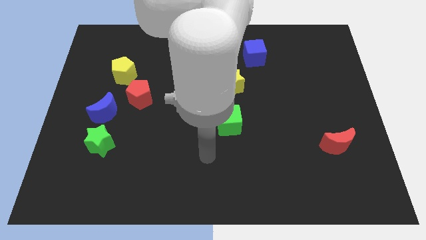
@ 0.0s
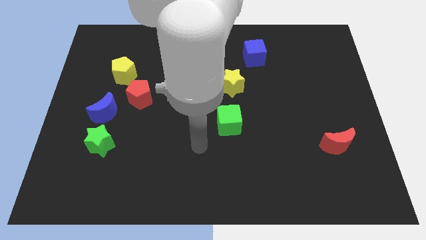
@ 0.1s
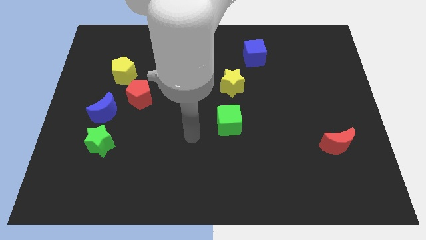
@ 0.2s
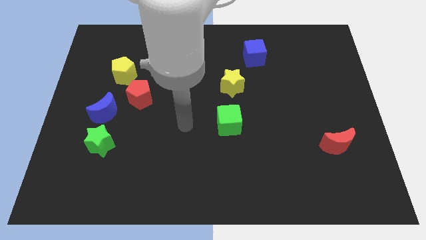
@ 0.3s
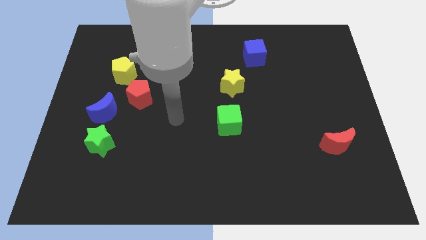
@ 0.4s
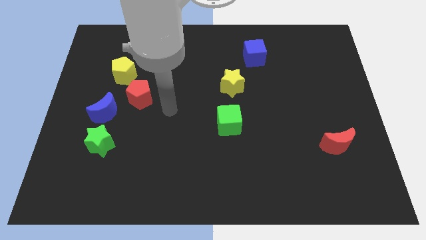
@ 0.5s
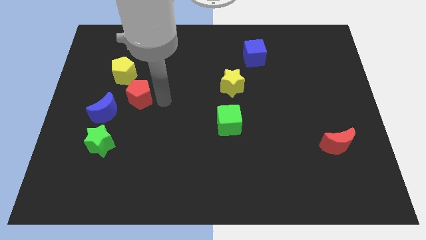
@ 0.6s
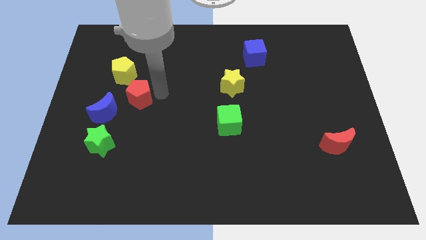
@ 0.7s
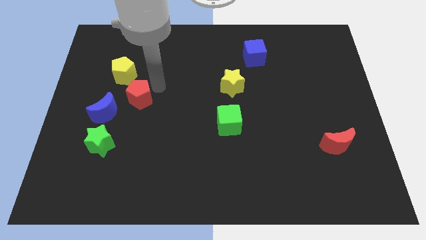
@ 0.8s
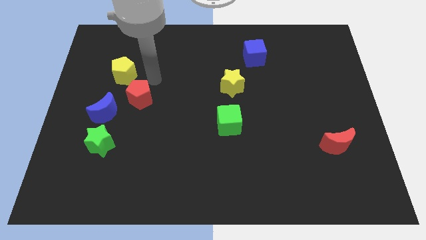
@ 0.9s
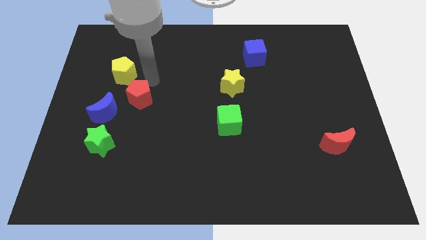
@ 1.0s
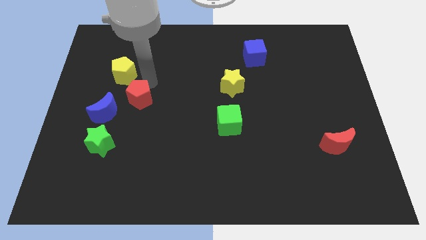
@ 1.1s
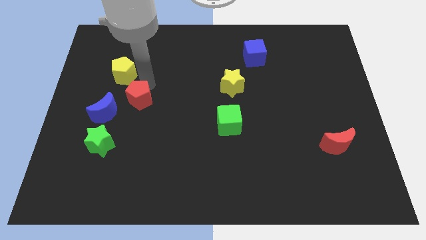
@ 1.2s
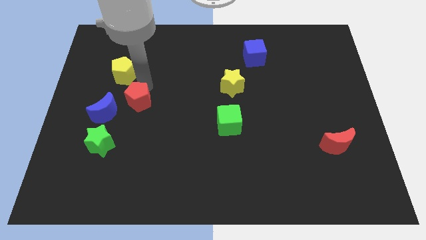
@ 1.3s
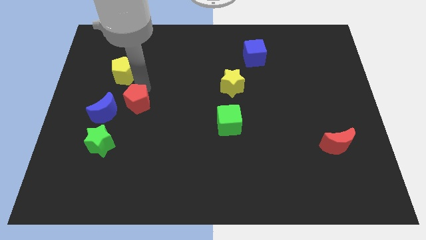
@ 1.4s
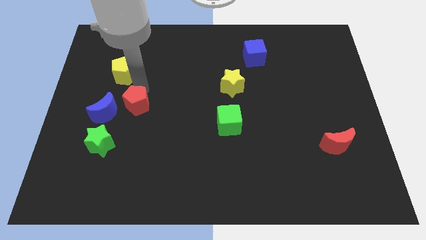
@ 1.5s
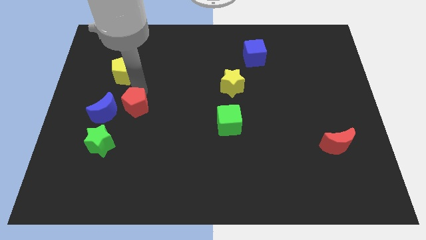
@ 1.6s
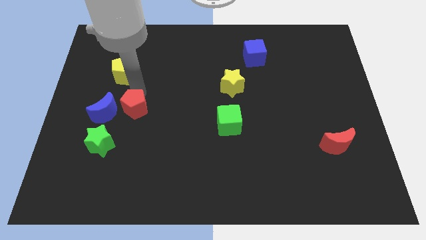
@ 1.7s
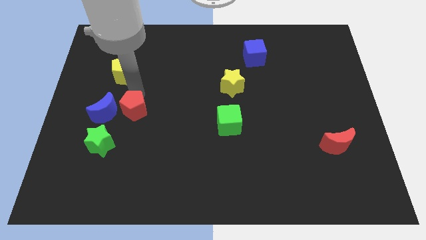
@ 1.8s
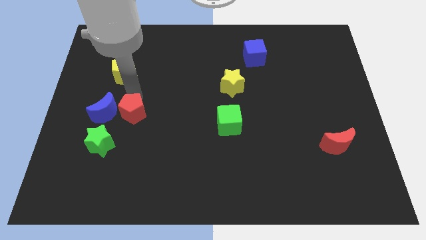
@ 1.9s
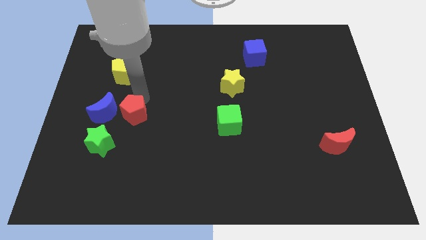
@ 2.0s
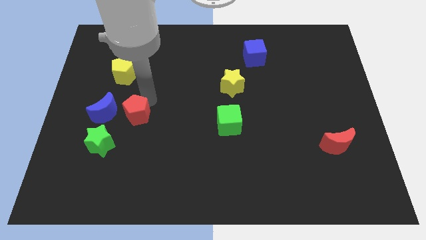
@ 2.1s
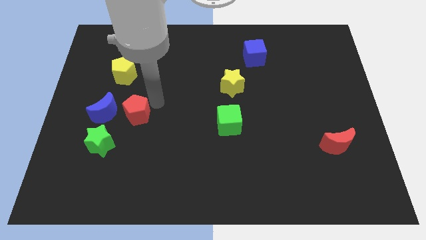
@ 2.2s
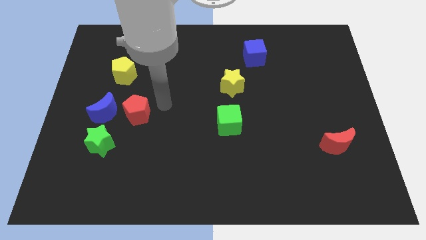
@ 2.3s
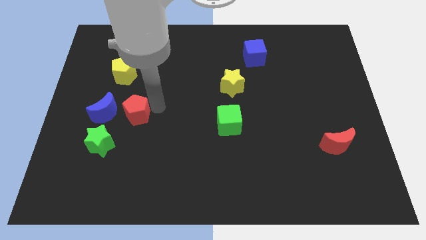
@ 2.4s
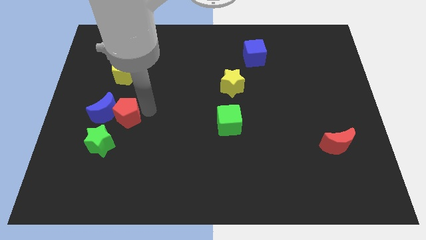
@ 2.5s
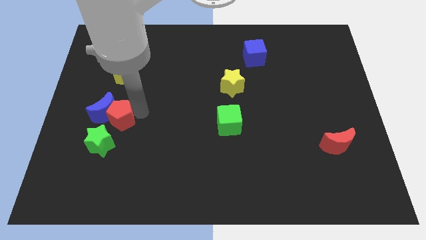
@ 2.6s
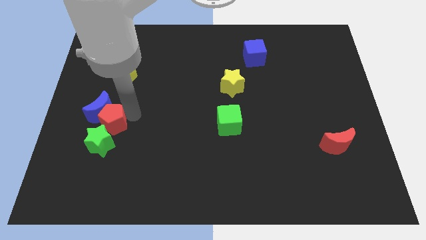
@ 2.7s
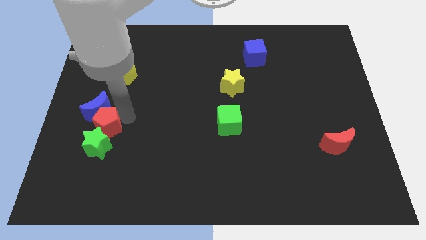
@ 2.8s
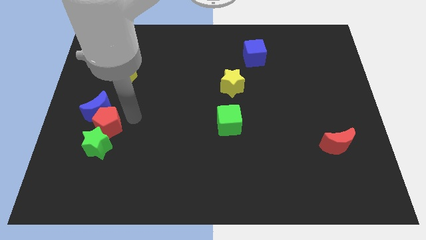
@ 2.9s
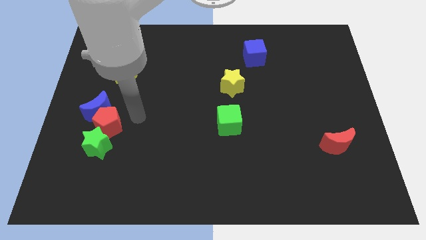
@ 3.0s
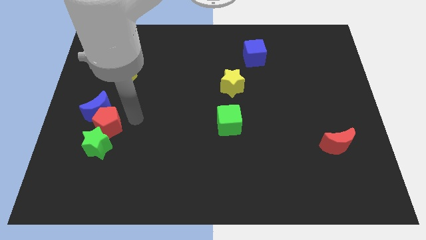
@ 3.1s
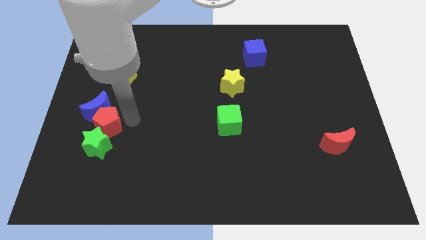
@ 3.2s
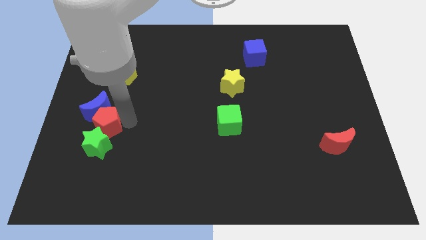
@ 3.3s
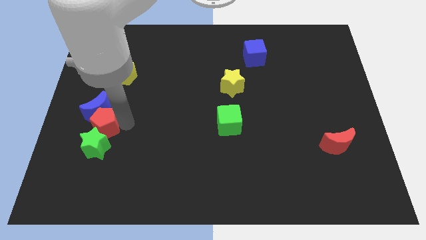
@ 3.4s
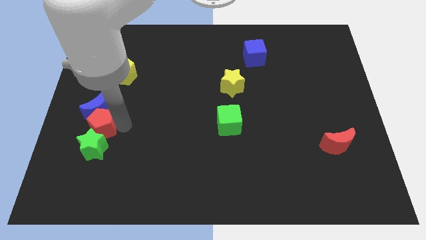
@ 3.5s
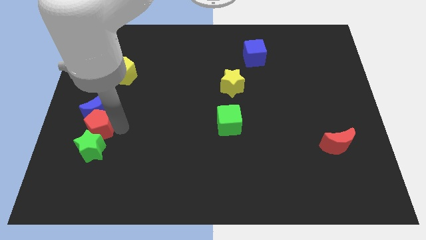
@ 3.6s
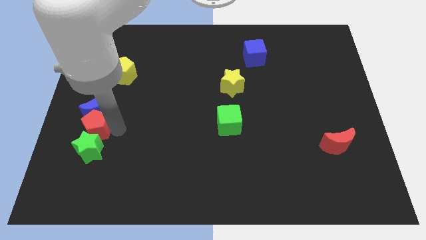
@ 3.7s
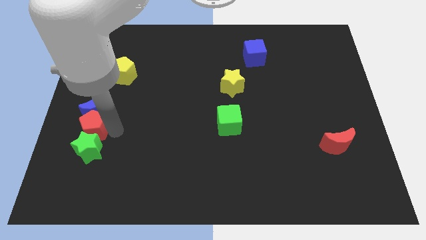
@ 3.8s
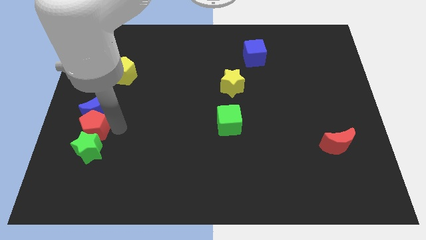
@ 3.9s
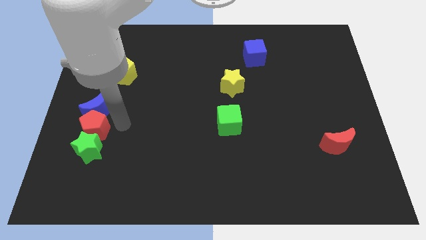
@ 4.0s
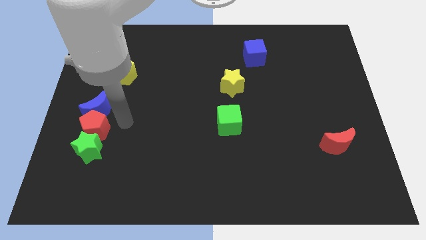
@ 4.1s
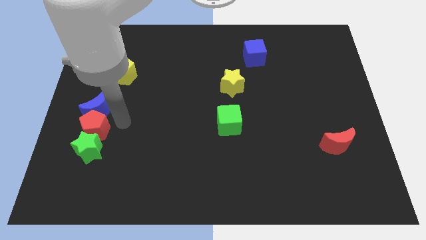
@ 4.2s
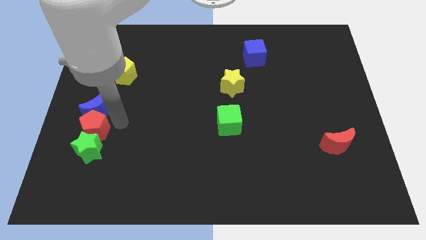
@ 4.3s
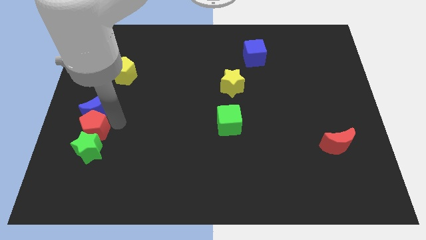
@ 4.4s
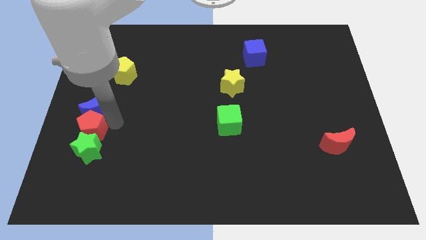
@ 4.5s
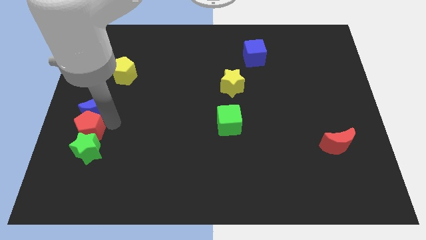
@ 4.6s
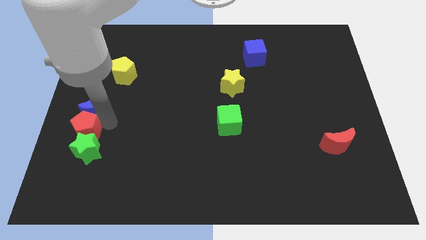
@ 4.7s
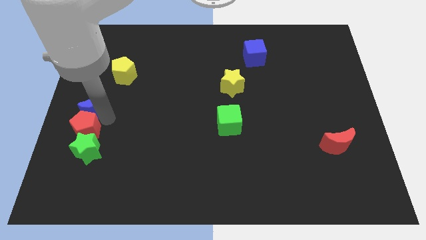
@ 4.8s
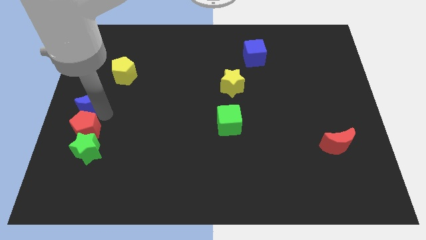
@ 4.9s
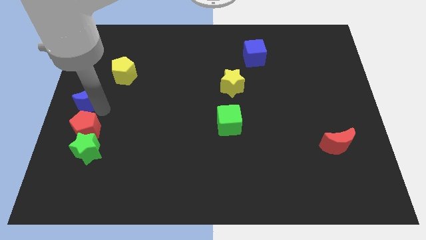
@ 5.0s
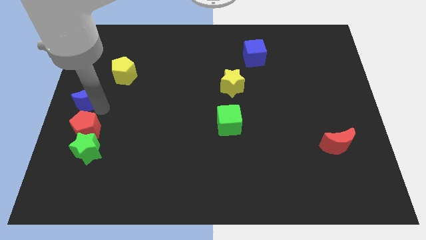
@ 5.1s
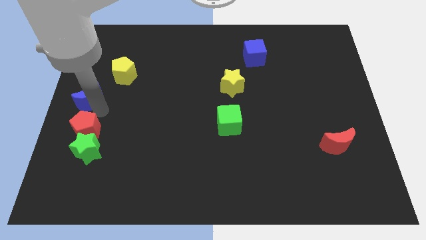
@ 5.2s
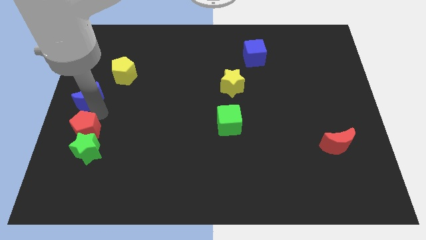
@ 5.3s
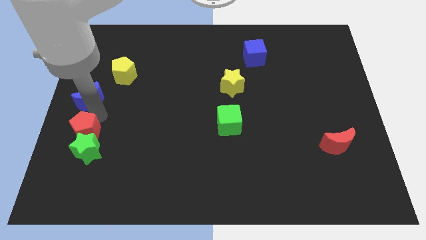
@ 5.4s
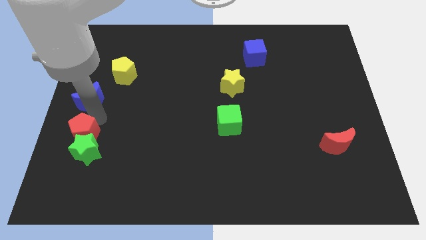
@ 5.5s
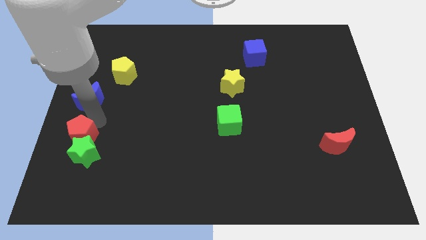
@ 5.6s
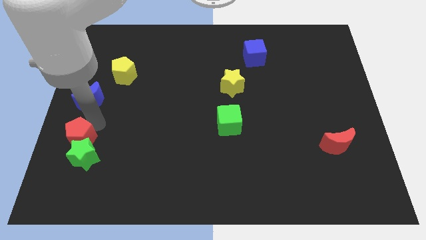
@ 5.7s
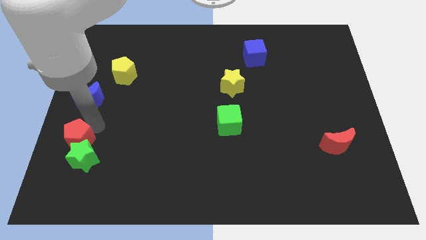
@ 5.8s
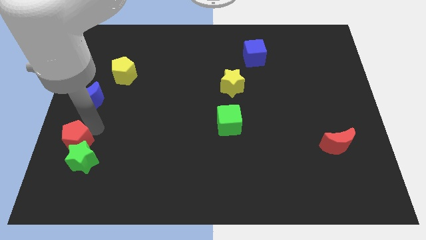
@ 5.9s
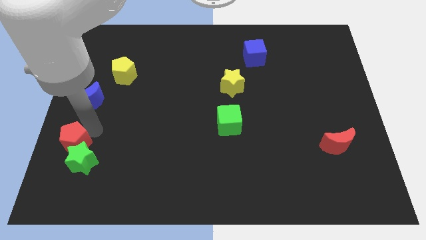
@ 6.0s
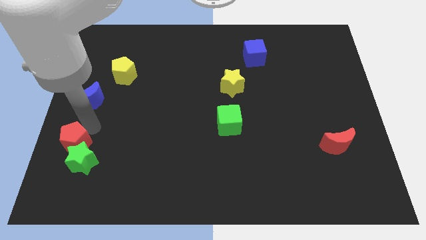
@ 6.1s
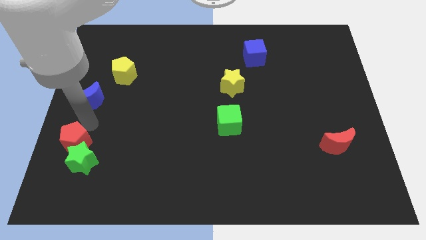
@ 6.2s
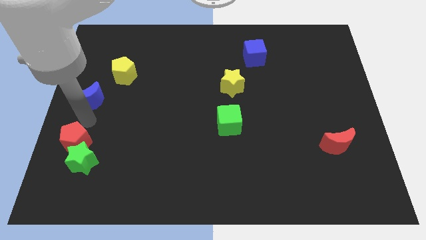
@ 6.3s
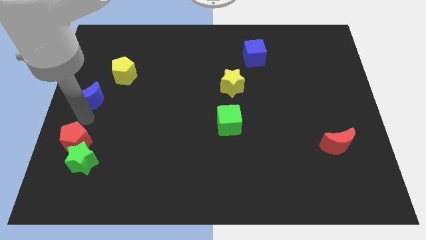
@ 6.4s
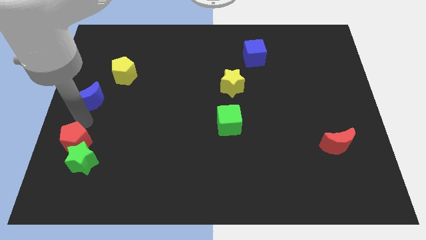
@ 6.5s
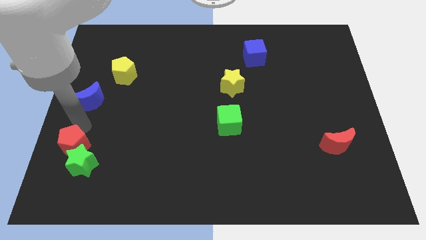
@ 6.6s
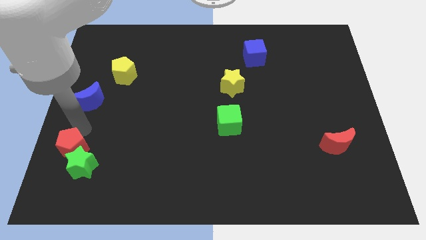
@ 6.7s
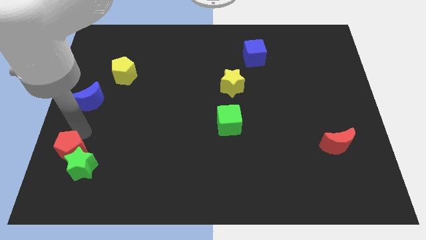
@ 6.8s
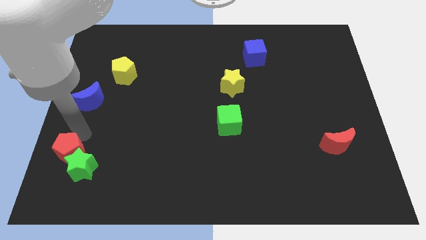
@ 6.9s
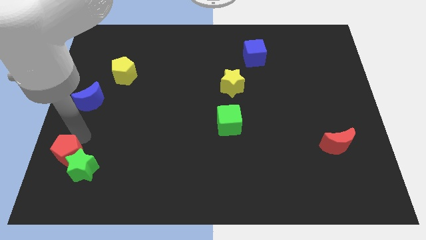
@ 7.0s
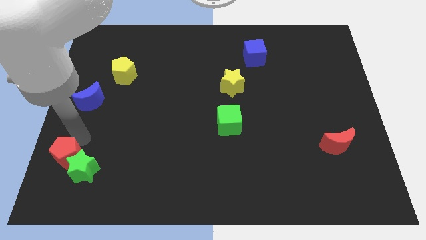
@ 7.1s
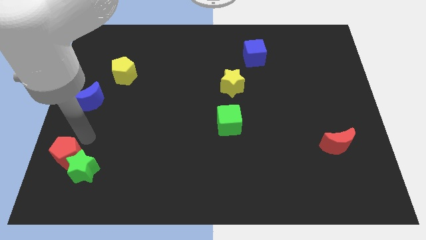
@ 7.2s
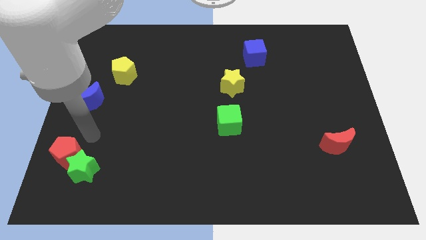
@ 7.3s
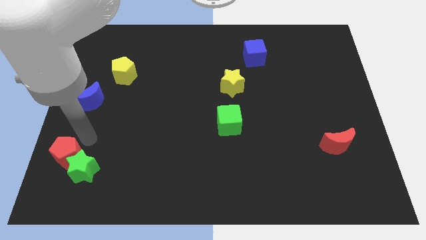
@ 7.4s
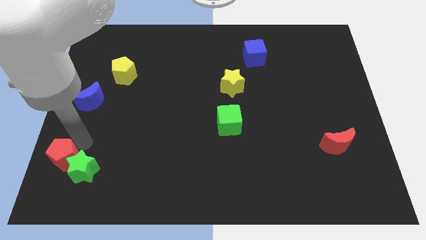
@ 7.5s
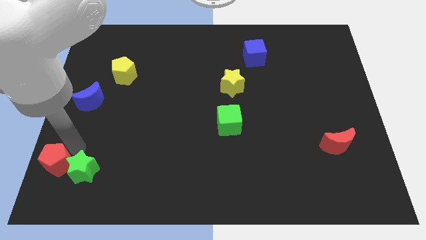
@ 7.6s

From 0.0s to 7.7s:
move the red pentagon to the lower left corner
